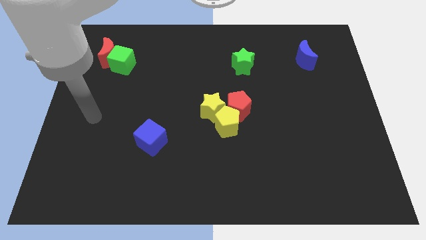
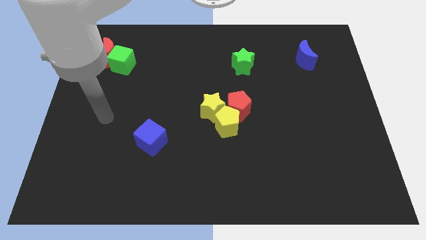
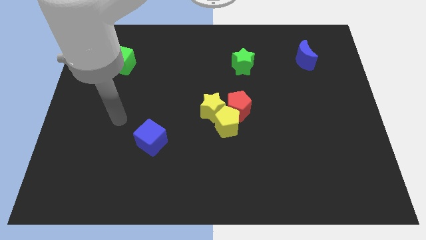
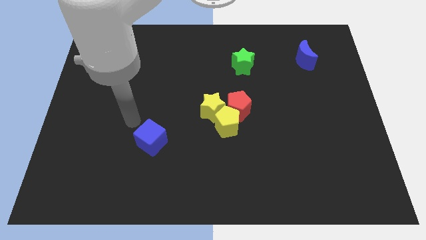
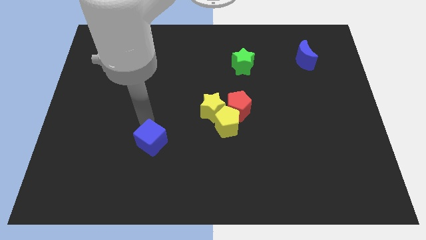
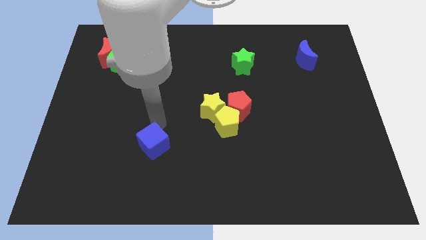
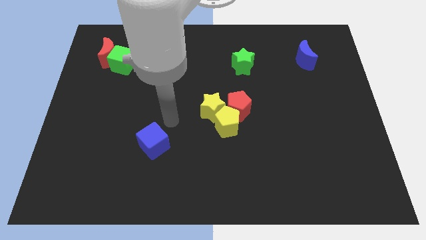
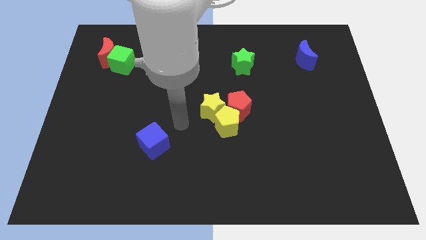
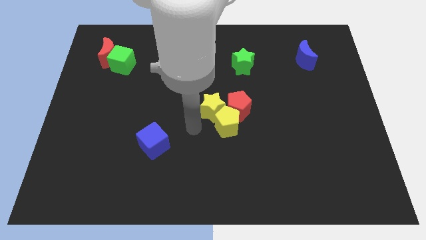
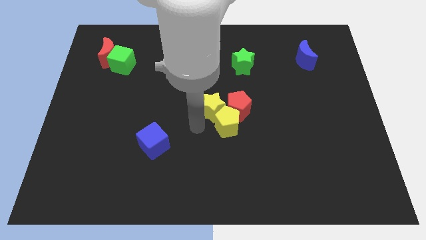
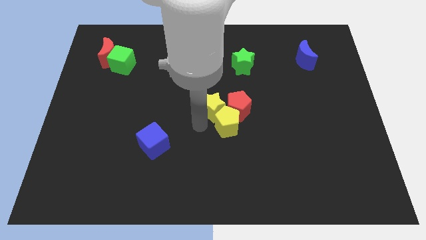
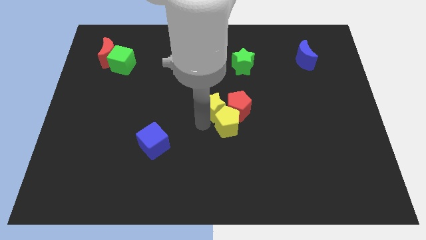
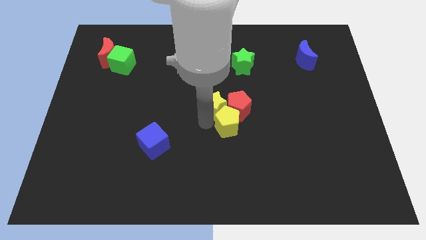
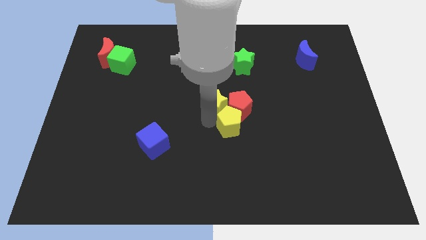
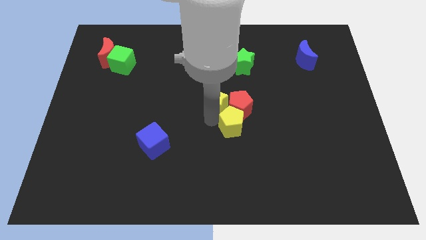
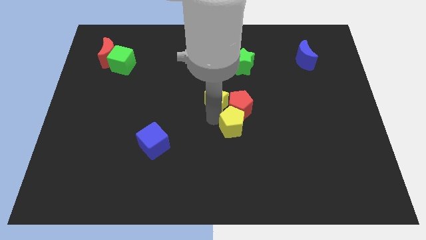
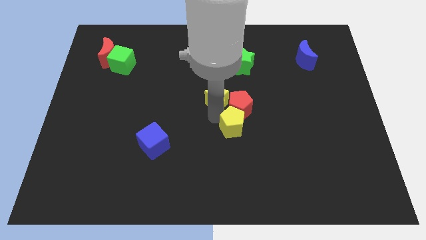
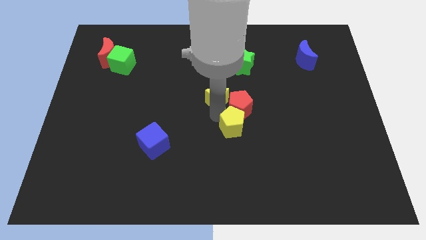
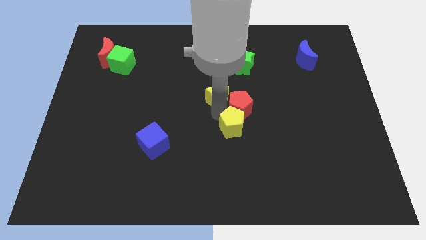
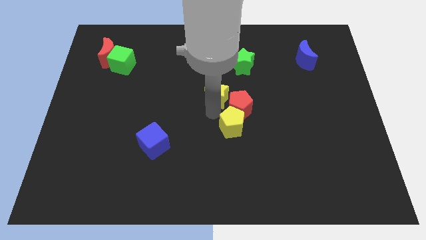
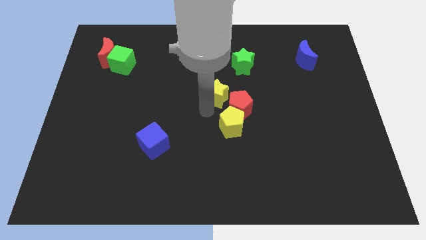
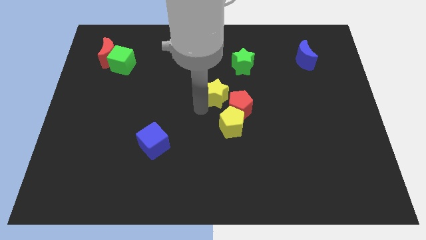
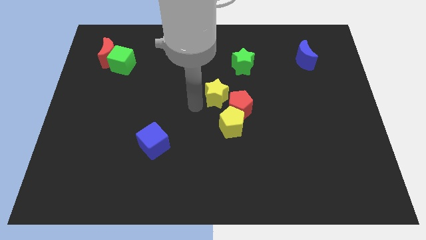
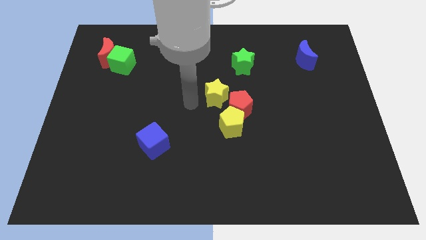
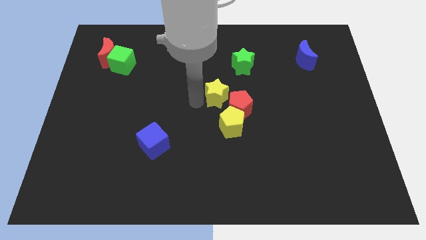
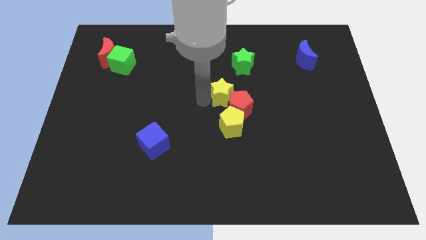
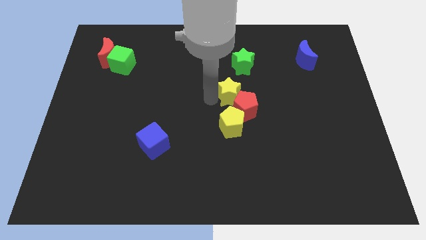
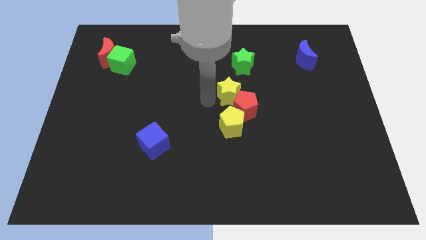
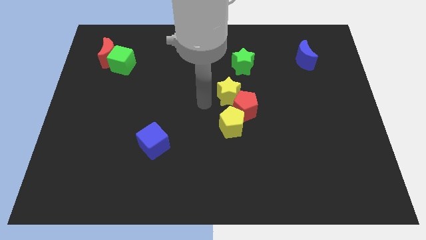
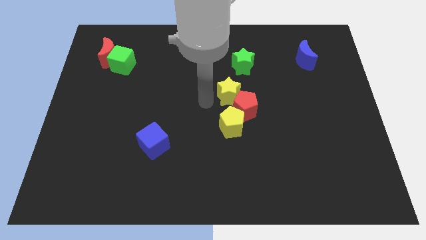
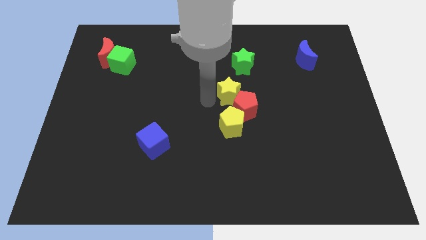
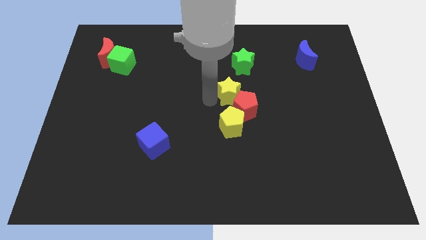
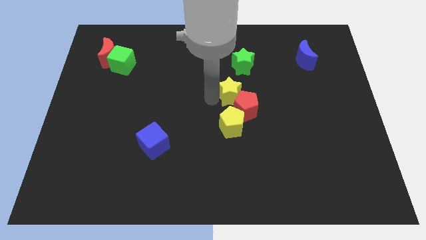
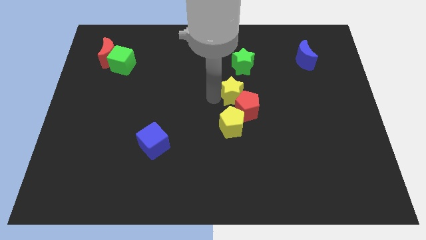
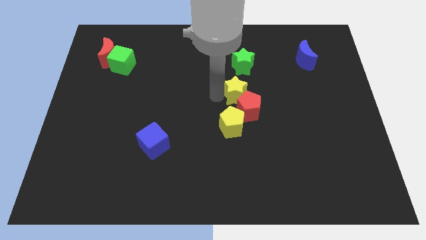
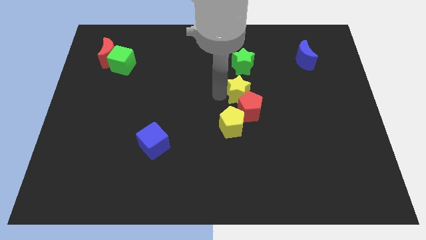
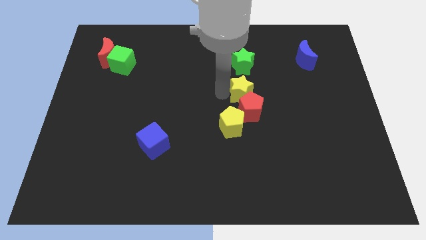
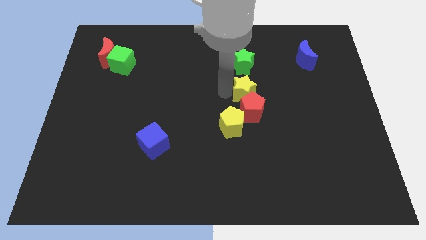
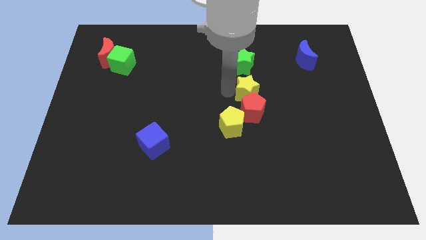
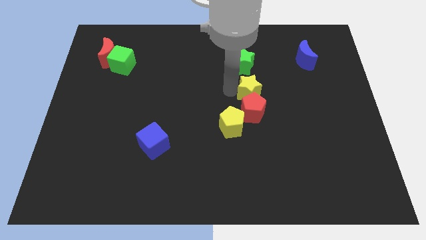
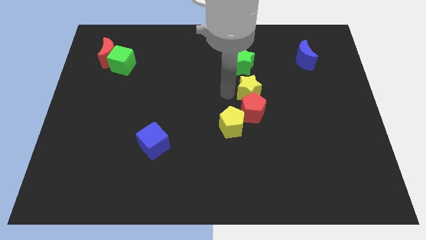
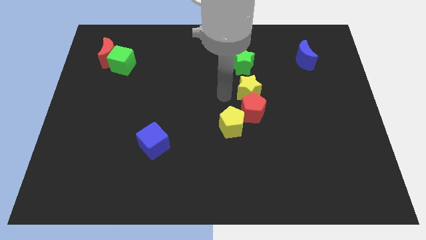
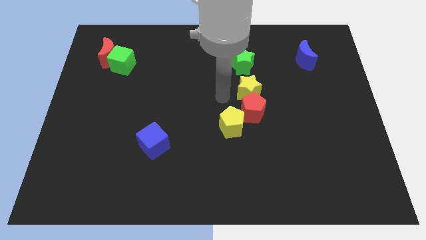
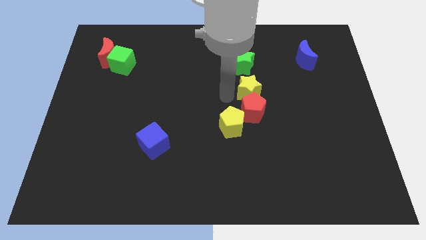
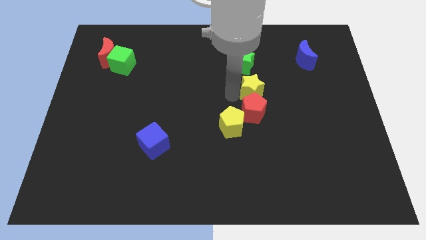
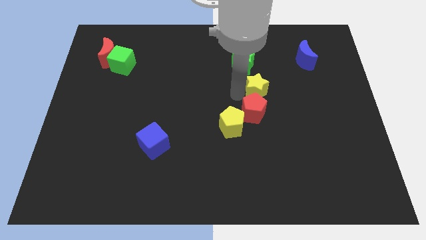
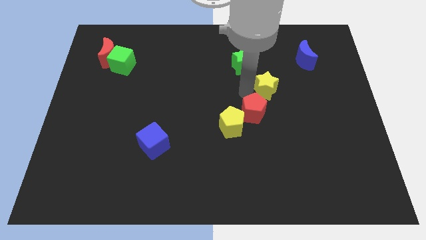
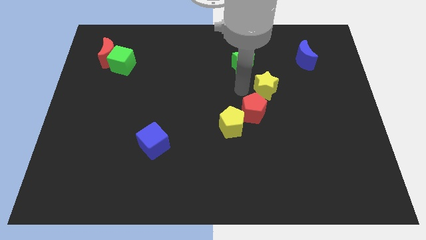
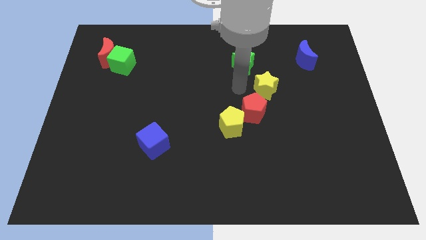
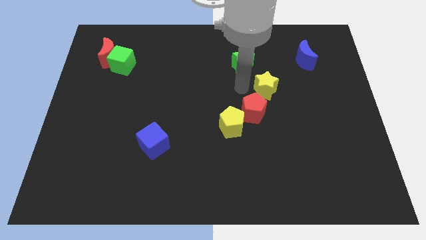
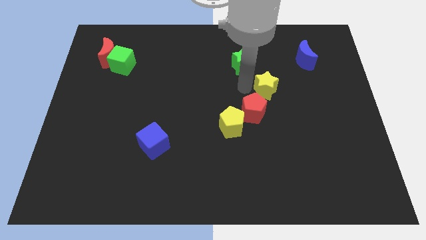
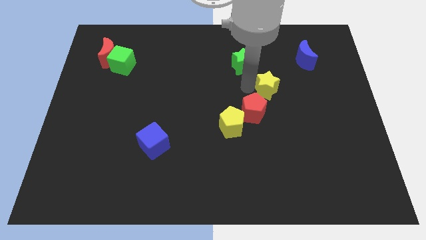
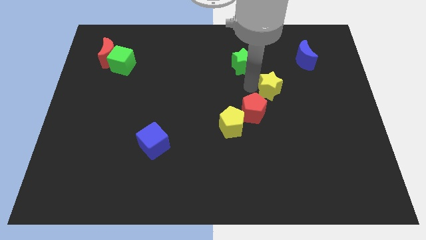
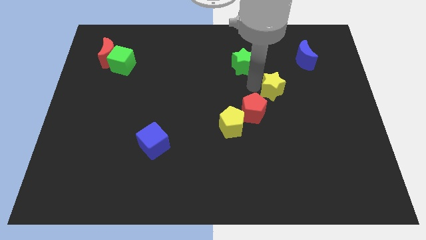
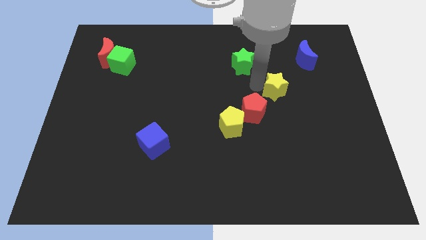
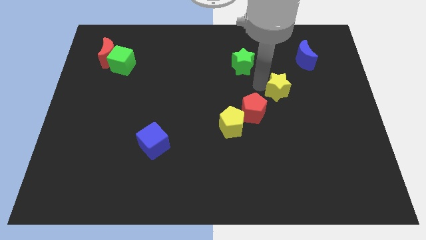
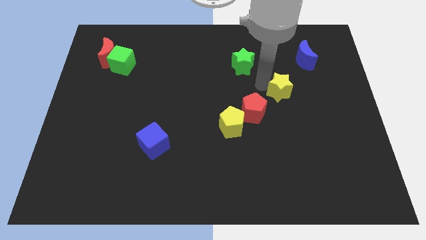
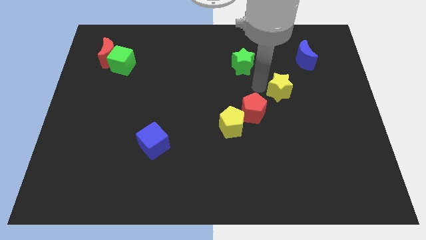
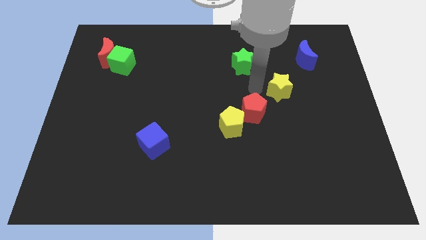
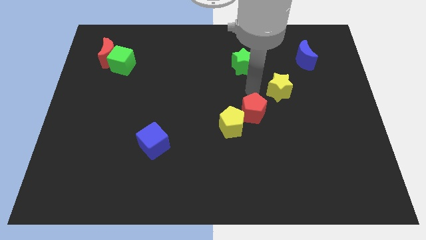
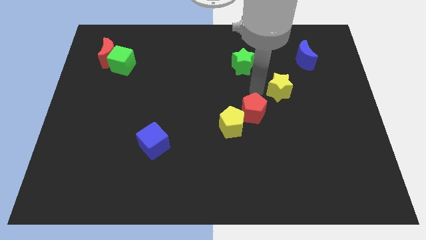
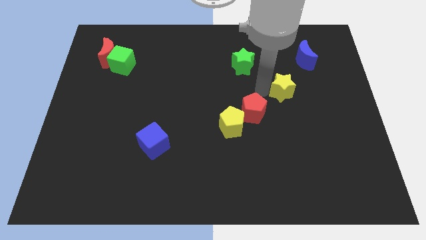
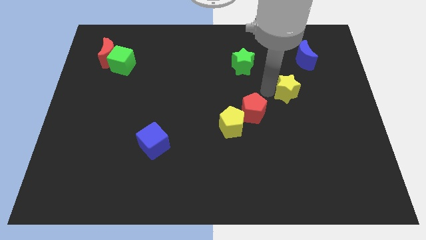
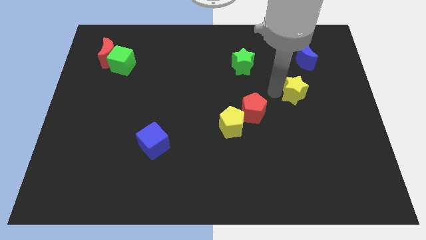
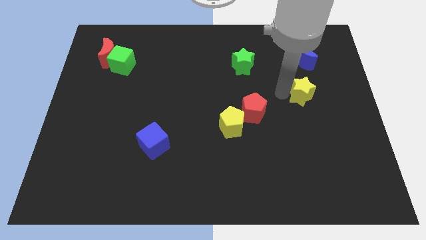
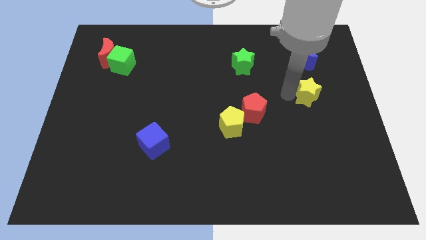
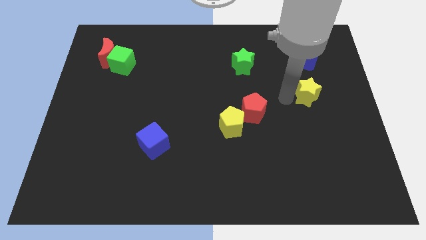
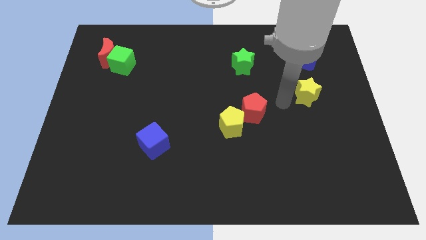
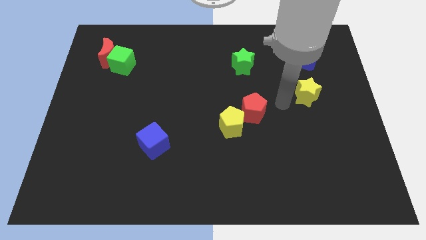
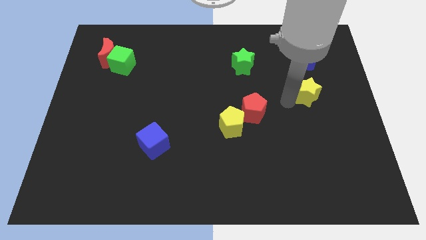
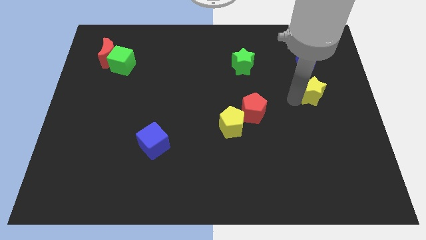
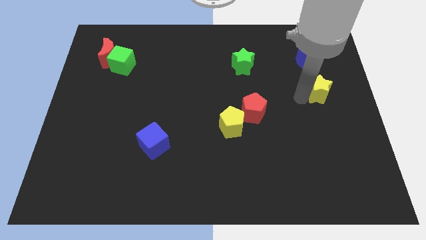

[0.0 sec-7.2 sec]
push the yellow star to the right side
